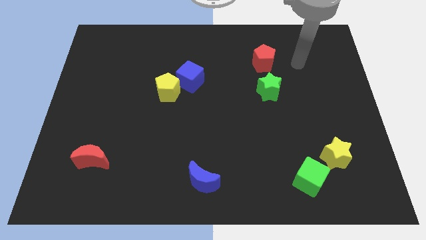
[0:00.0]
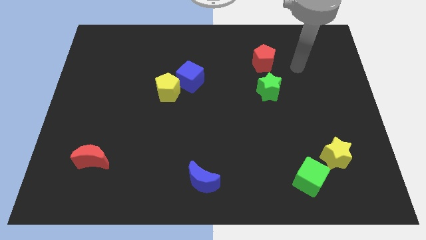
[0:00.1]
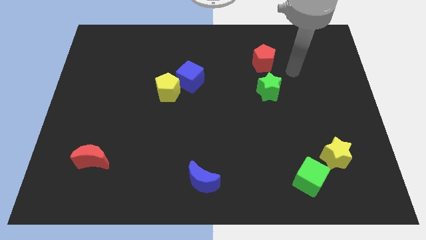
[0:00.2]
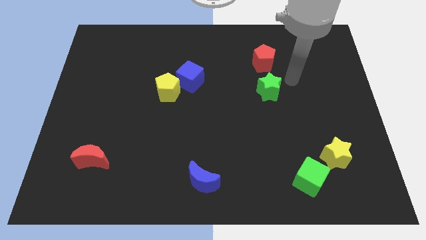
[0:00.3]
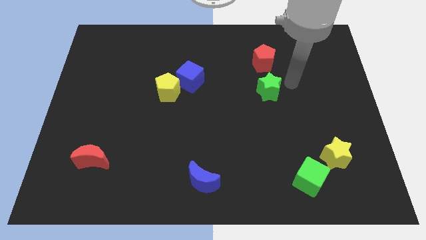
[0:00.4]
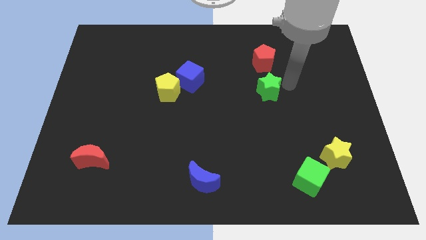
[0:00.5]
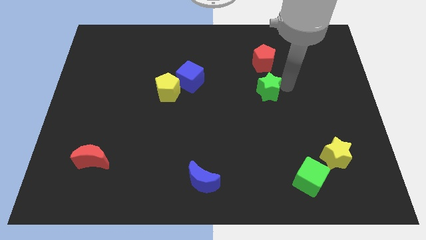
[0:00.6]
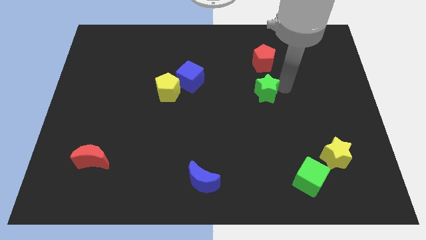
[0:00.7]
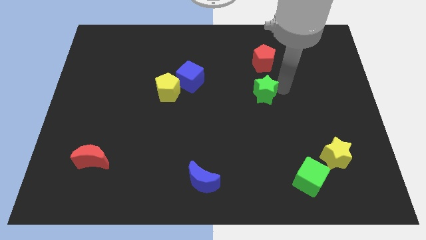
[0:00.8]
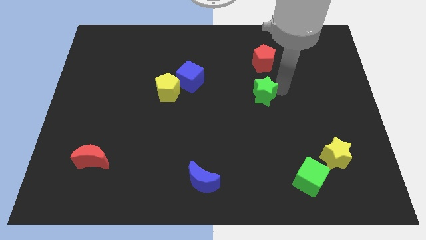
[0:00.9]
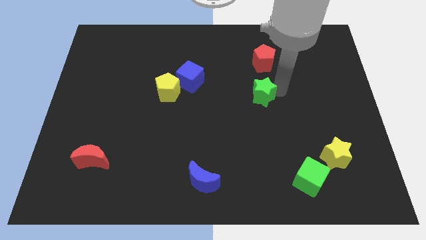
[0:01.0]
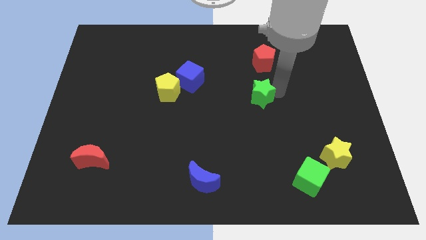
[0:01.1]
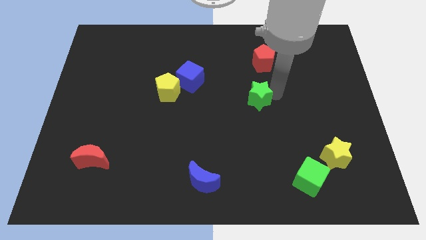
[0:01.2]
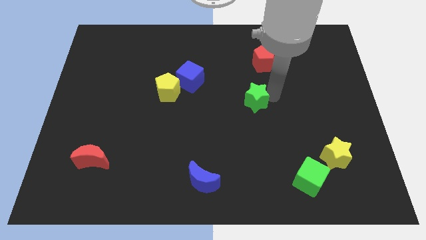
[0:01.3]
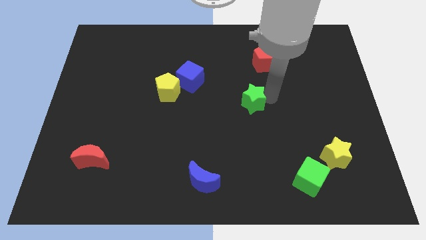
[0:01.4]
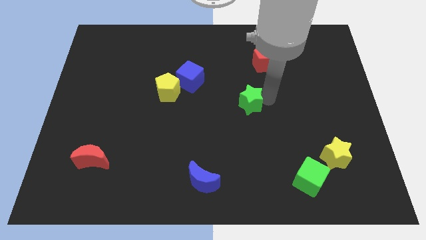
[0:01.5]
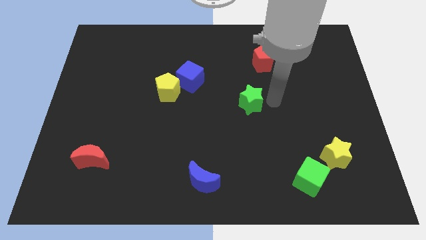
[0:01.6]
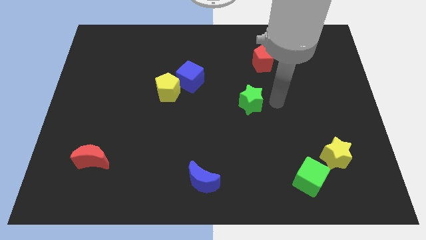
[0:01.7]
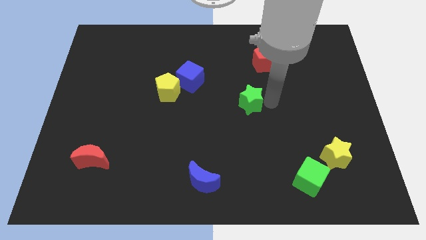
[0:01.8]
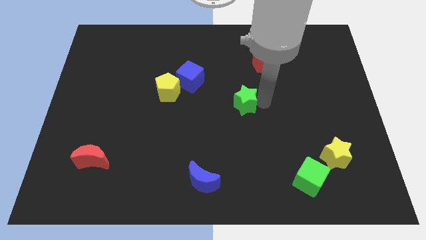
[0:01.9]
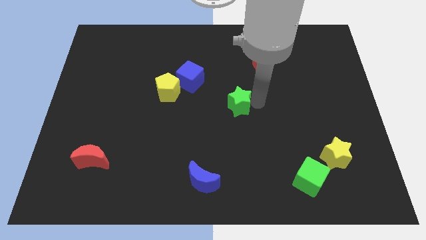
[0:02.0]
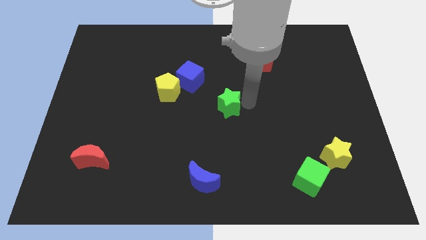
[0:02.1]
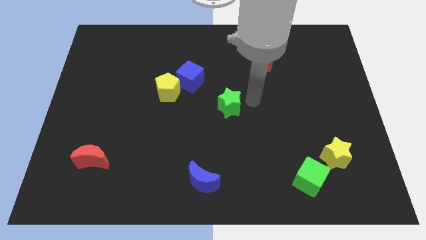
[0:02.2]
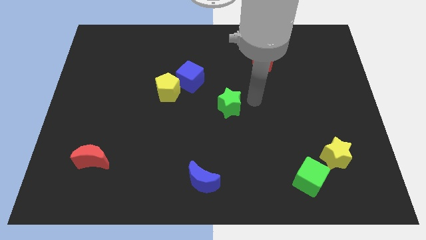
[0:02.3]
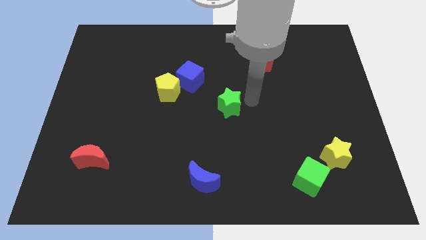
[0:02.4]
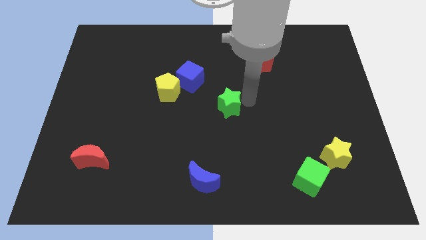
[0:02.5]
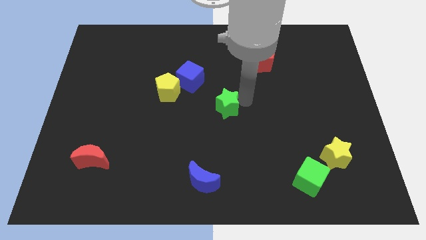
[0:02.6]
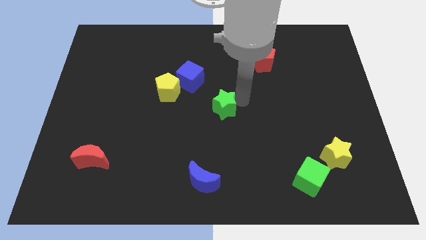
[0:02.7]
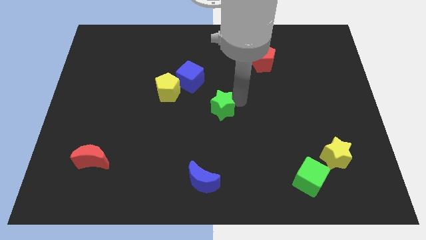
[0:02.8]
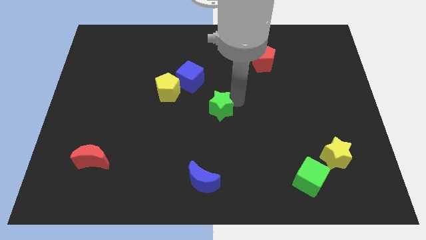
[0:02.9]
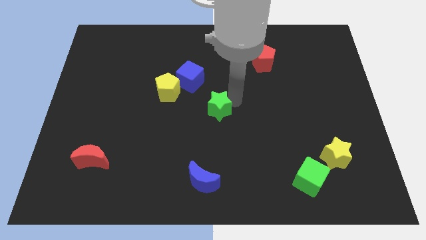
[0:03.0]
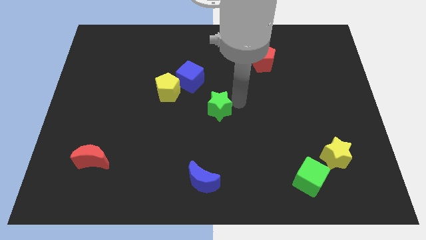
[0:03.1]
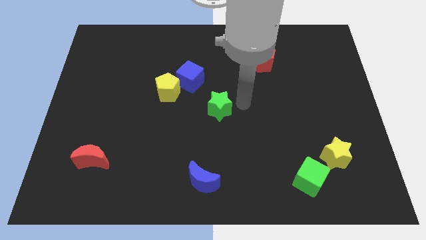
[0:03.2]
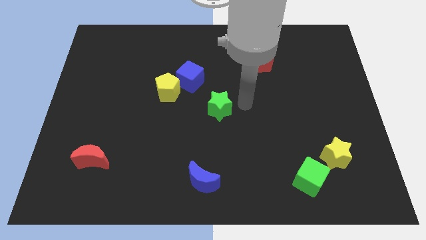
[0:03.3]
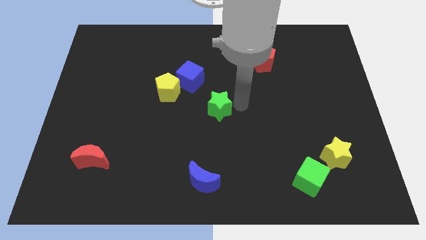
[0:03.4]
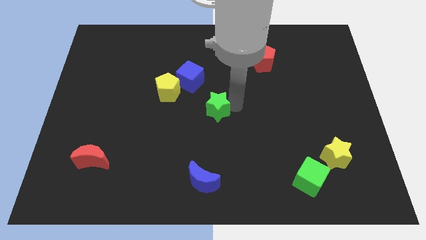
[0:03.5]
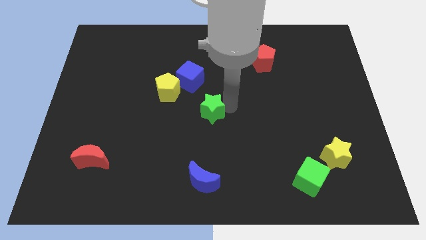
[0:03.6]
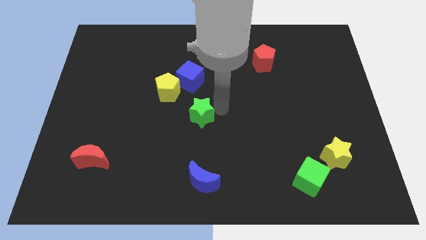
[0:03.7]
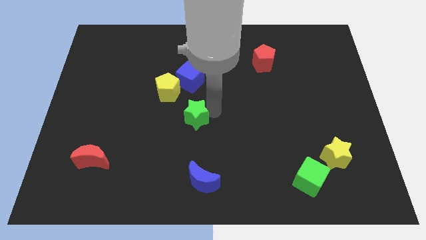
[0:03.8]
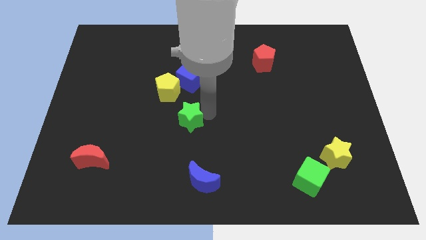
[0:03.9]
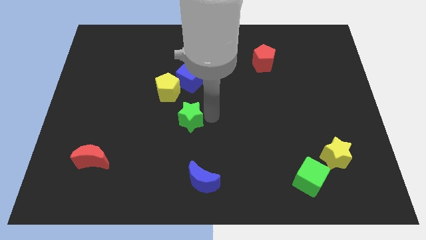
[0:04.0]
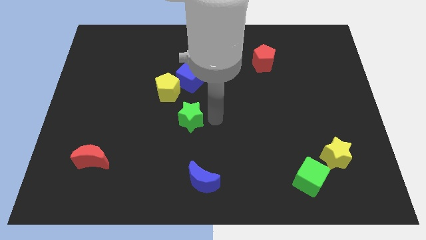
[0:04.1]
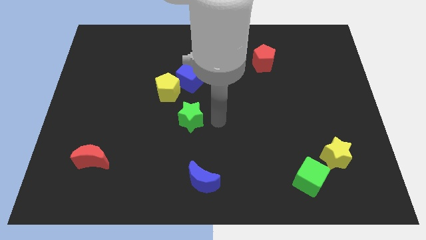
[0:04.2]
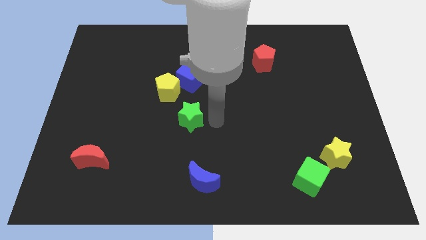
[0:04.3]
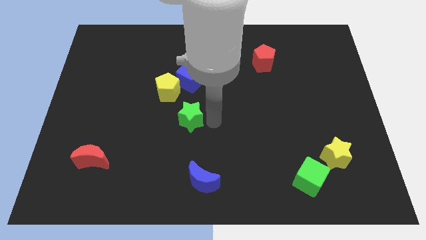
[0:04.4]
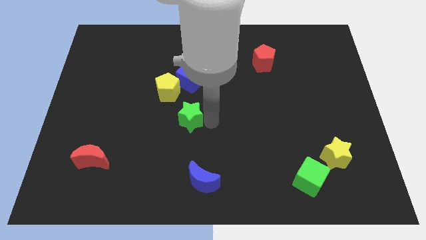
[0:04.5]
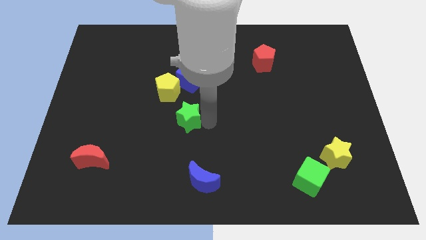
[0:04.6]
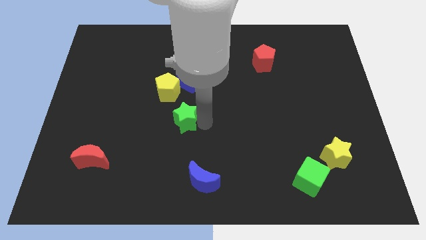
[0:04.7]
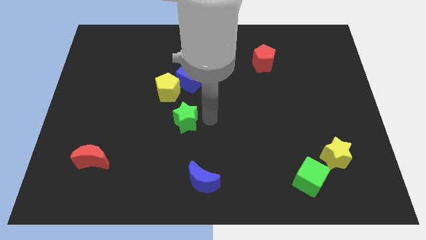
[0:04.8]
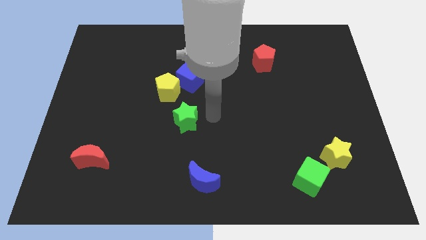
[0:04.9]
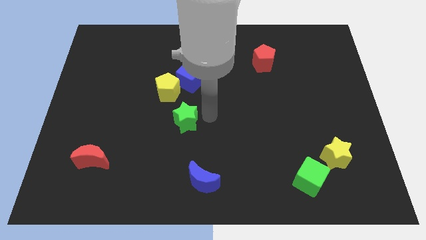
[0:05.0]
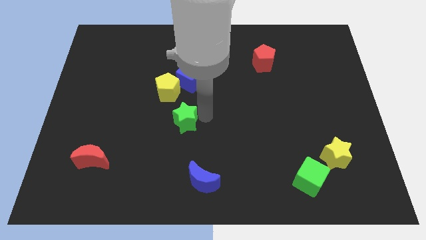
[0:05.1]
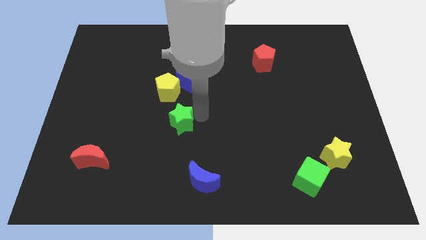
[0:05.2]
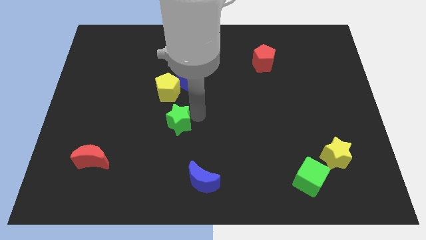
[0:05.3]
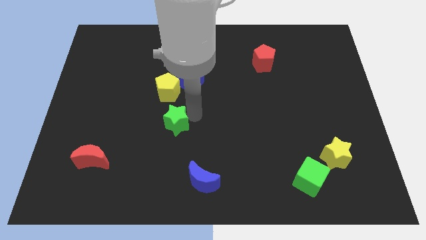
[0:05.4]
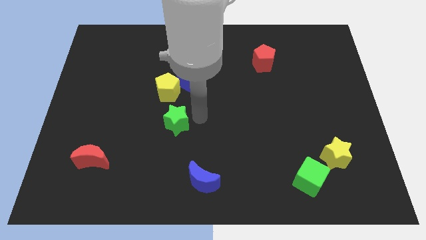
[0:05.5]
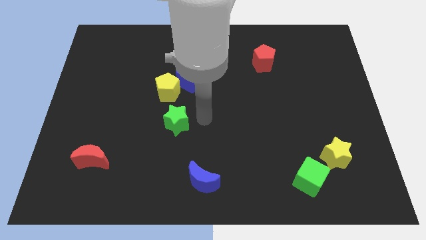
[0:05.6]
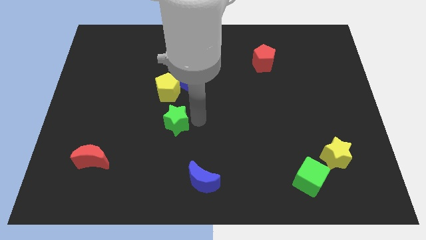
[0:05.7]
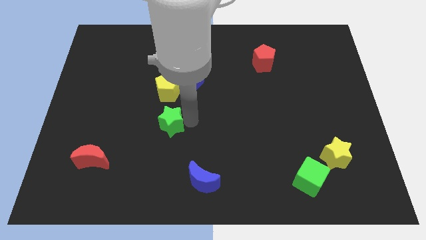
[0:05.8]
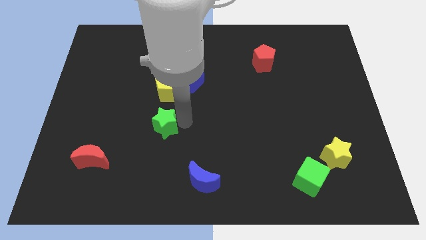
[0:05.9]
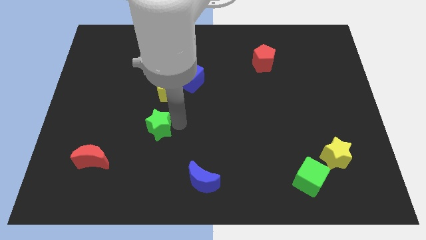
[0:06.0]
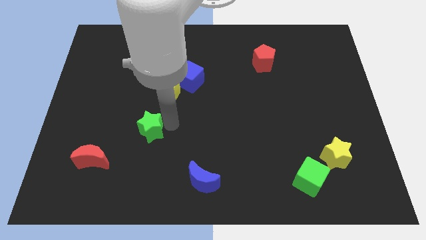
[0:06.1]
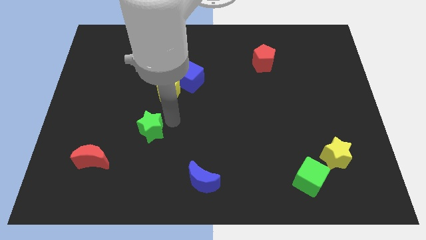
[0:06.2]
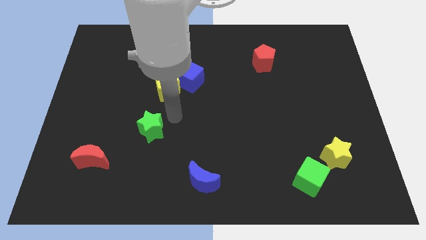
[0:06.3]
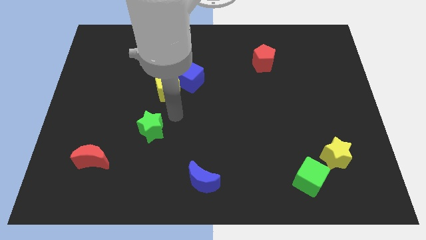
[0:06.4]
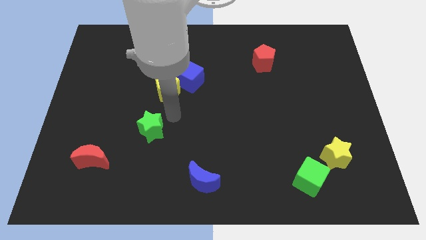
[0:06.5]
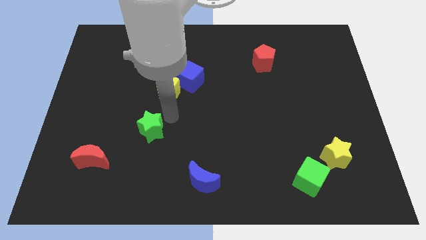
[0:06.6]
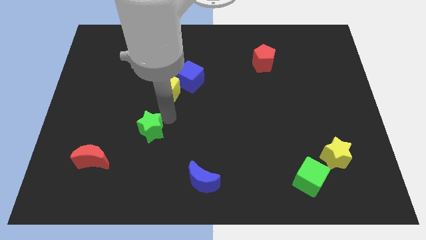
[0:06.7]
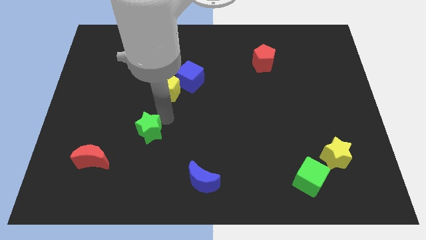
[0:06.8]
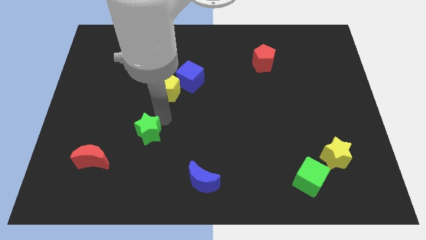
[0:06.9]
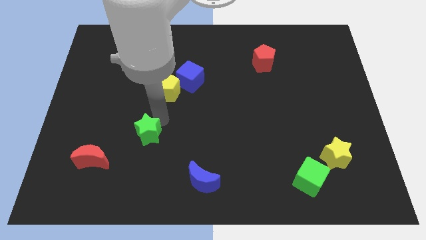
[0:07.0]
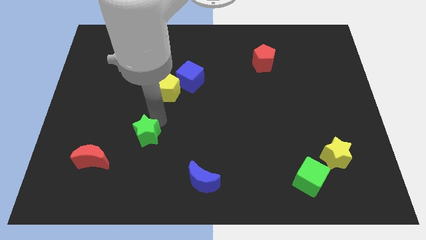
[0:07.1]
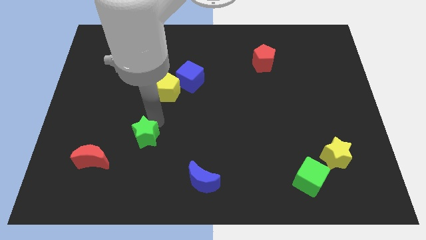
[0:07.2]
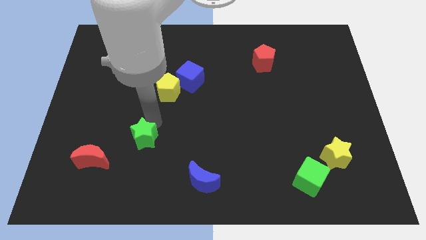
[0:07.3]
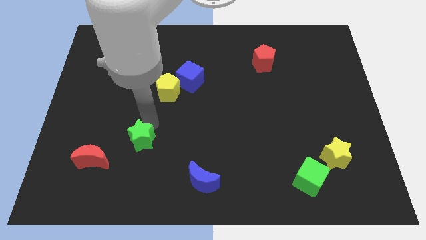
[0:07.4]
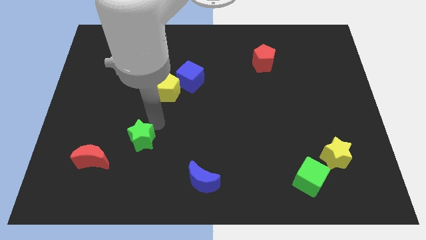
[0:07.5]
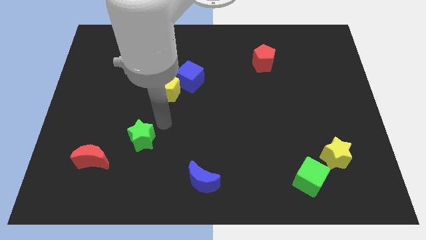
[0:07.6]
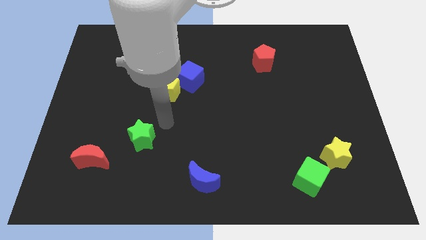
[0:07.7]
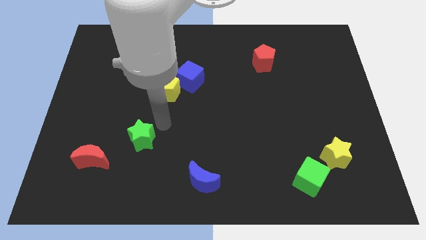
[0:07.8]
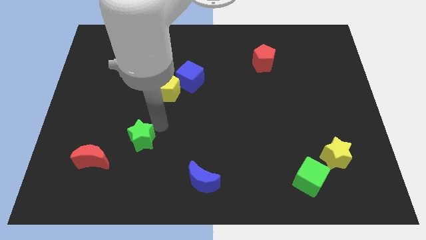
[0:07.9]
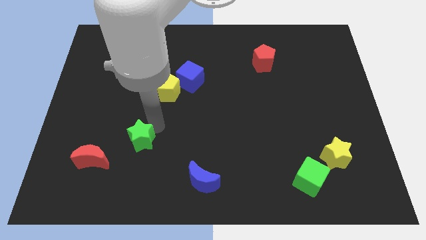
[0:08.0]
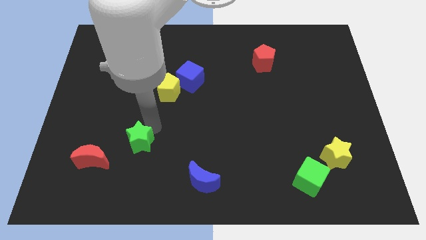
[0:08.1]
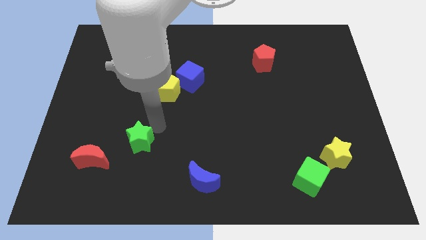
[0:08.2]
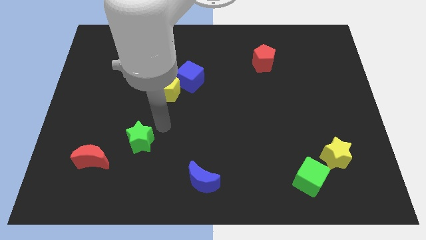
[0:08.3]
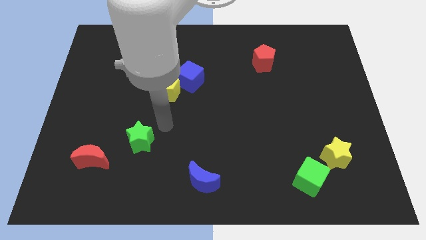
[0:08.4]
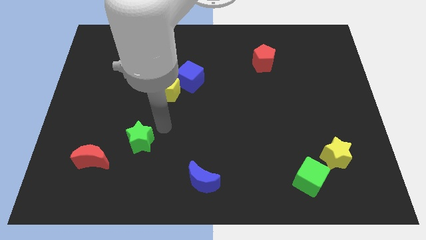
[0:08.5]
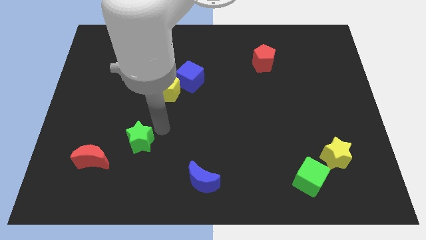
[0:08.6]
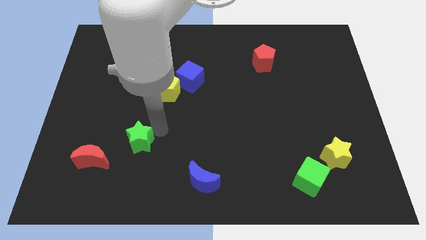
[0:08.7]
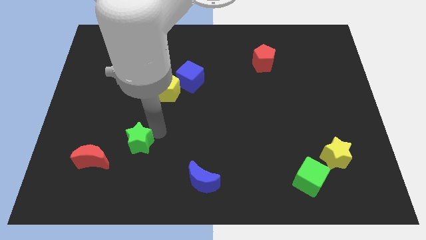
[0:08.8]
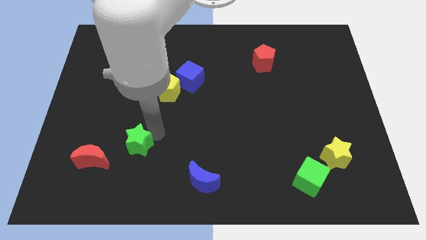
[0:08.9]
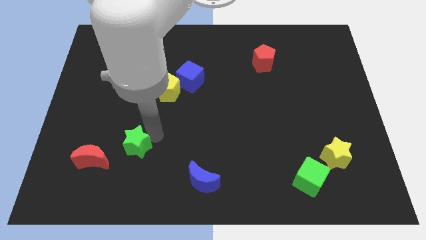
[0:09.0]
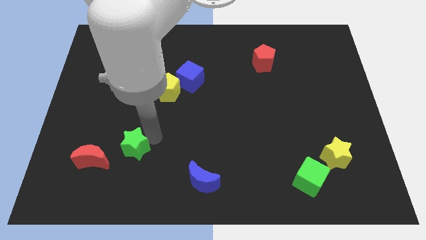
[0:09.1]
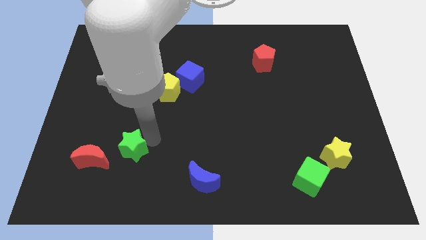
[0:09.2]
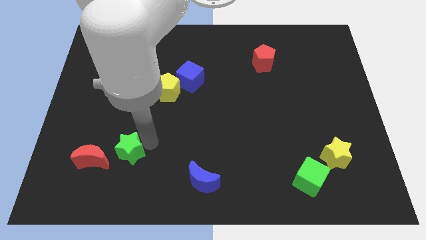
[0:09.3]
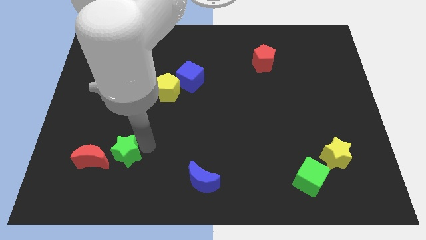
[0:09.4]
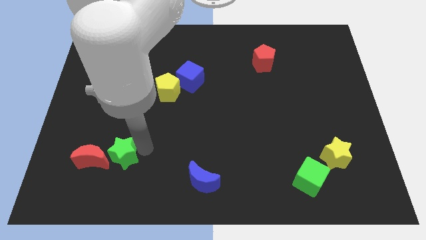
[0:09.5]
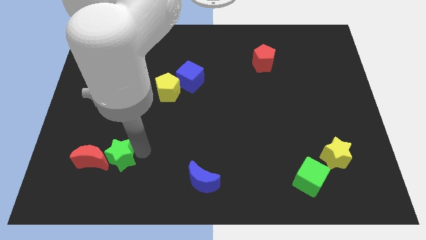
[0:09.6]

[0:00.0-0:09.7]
put the green star towards the red moon
